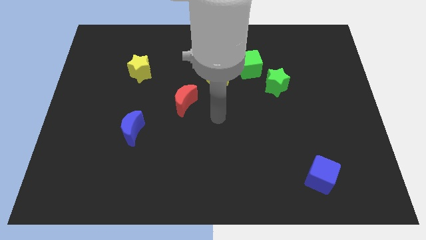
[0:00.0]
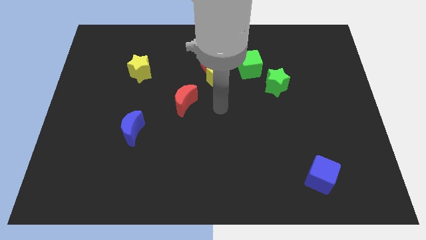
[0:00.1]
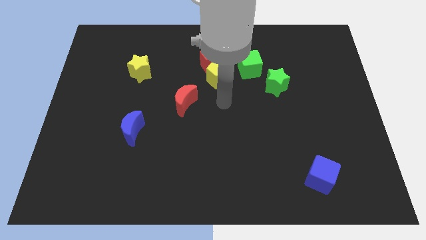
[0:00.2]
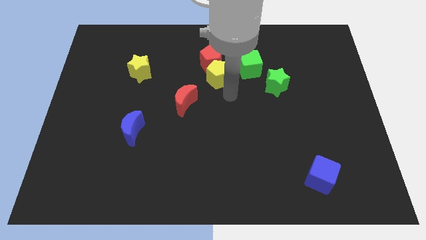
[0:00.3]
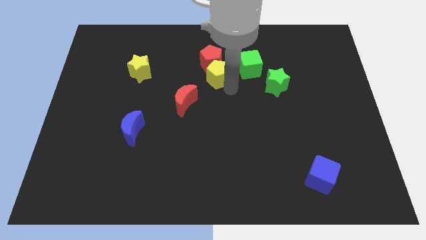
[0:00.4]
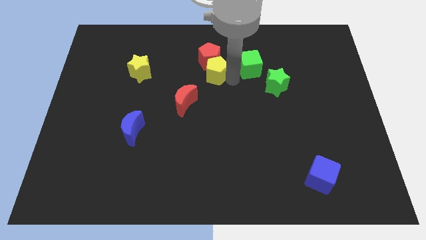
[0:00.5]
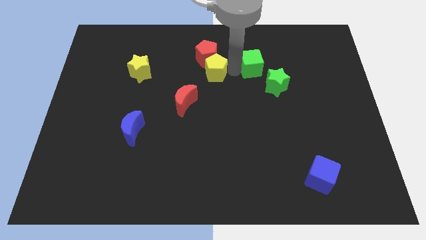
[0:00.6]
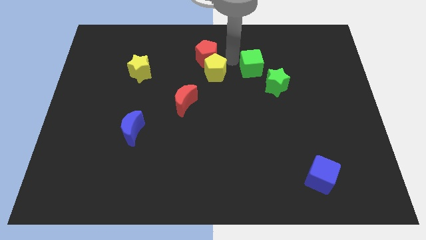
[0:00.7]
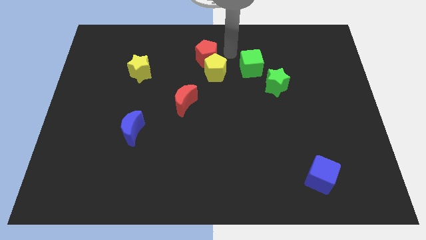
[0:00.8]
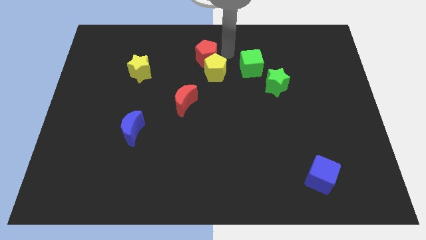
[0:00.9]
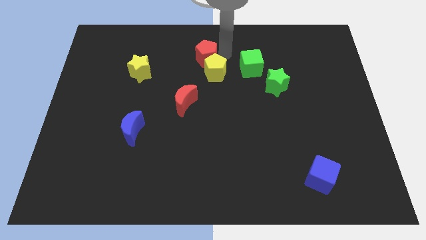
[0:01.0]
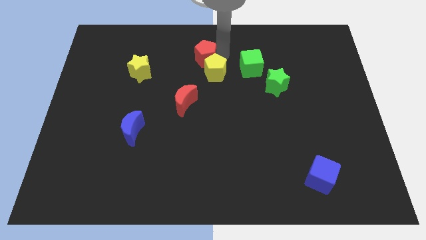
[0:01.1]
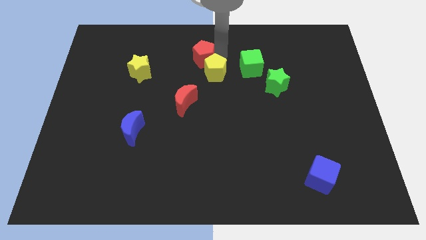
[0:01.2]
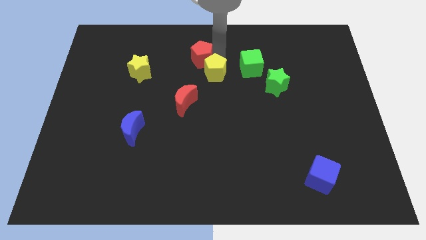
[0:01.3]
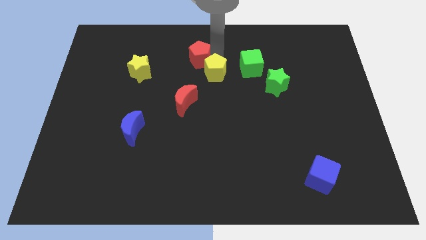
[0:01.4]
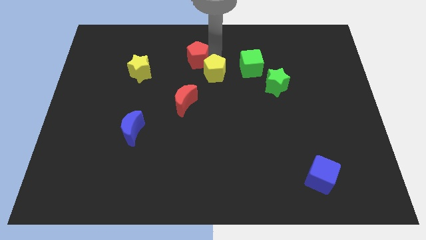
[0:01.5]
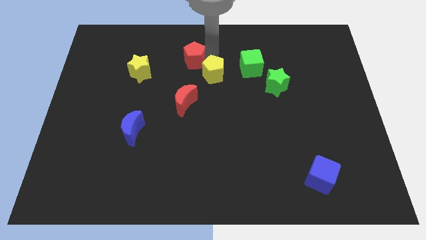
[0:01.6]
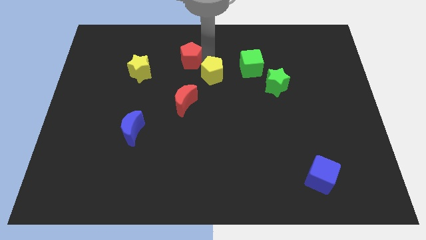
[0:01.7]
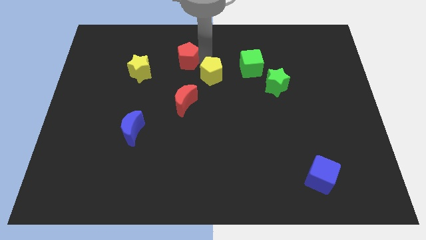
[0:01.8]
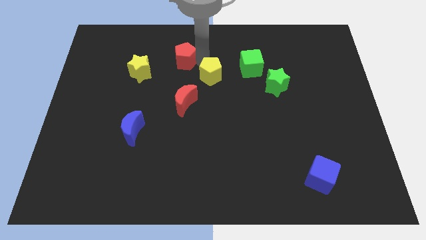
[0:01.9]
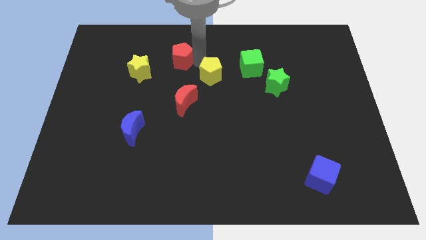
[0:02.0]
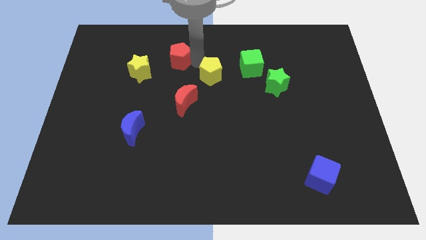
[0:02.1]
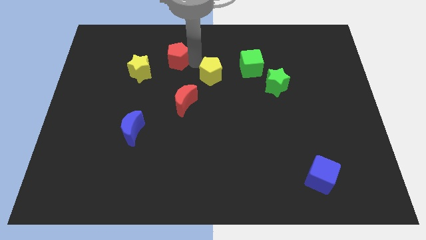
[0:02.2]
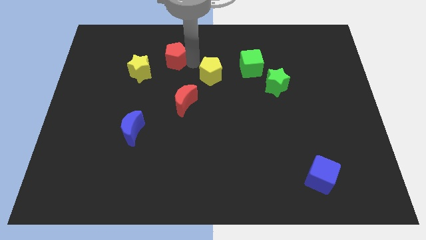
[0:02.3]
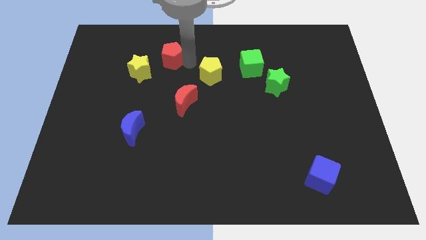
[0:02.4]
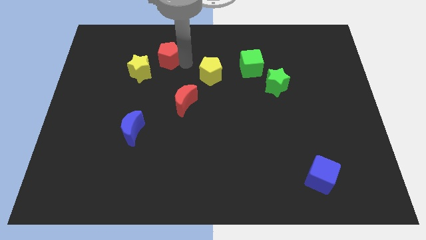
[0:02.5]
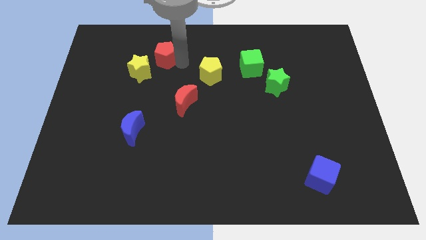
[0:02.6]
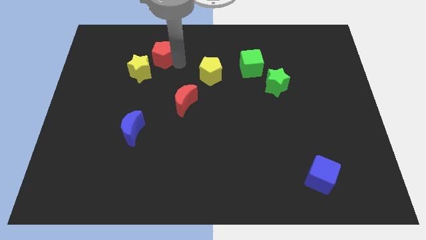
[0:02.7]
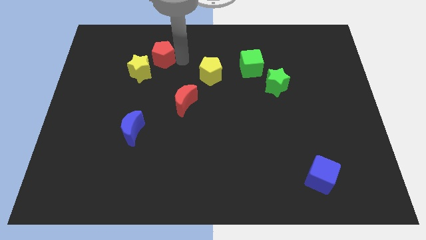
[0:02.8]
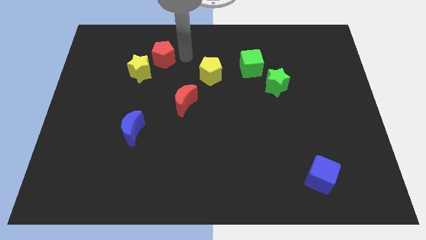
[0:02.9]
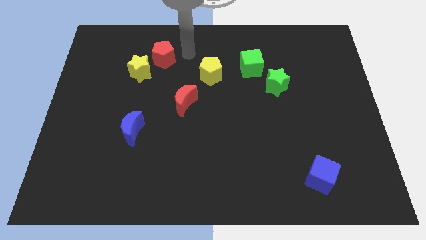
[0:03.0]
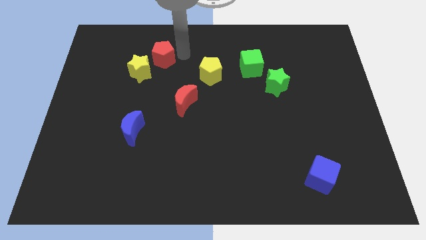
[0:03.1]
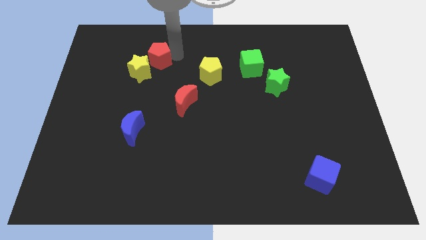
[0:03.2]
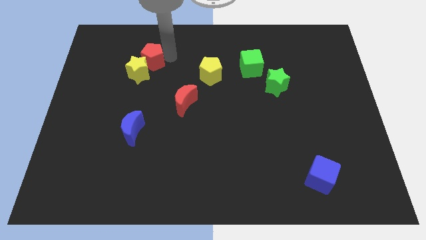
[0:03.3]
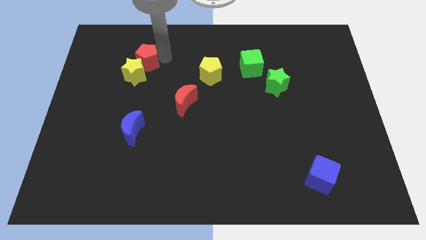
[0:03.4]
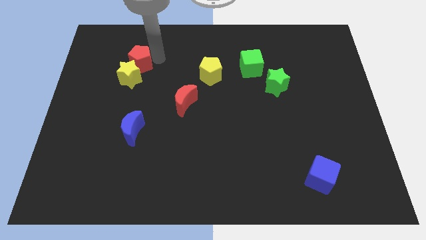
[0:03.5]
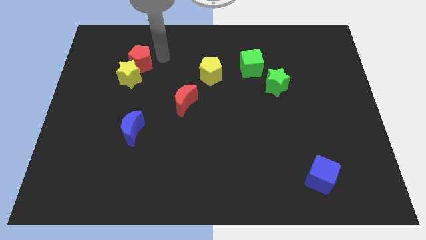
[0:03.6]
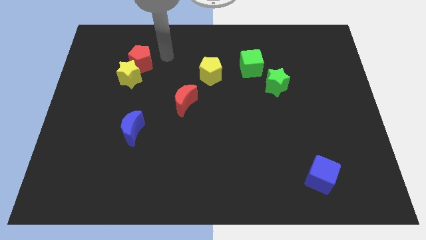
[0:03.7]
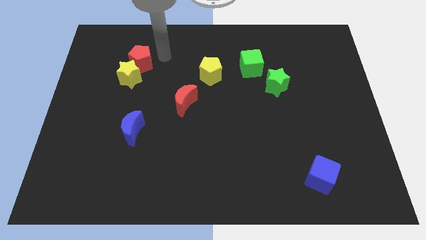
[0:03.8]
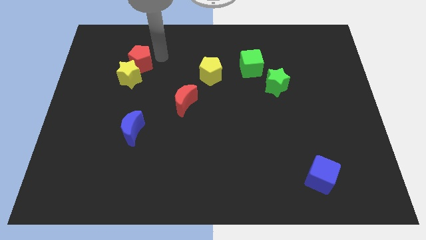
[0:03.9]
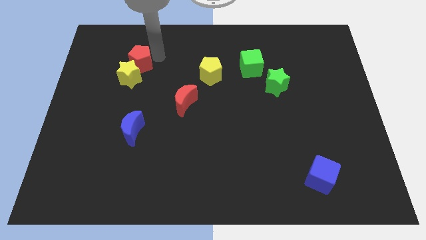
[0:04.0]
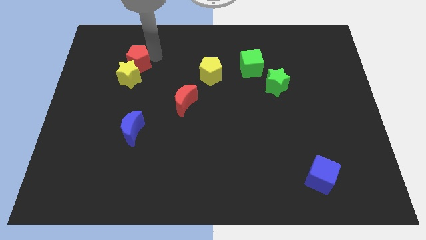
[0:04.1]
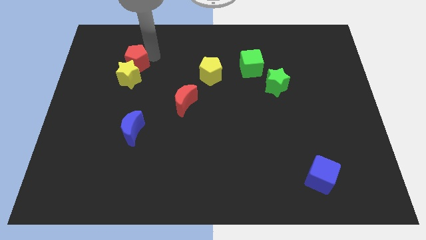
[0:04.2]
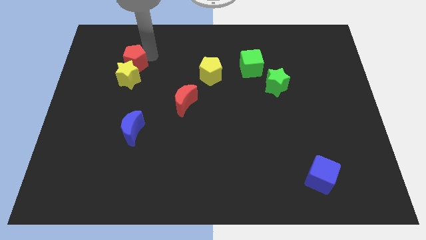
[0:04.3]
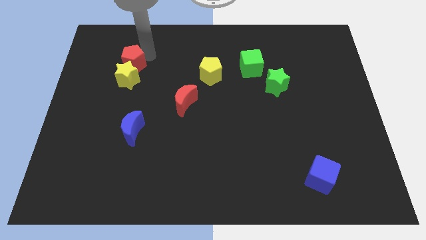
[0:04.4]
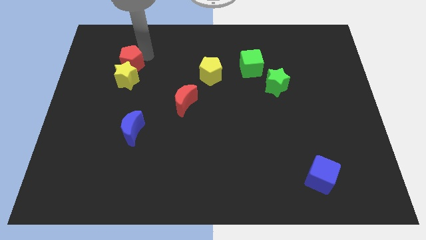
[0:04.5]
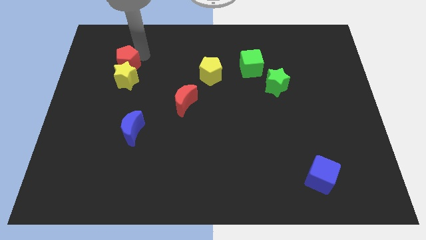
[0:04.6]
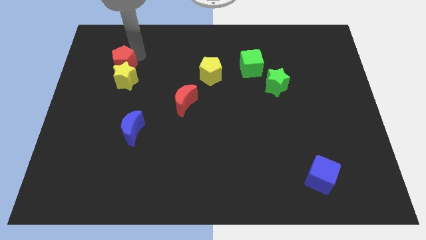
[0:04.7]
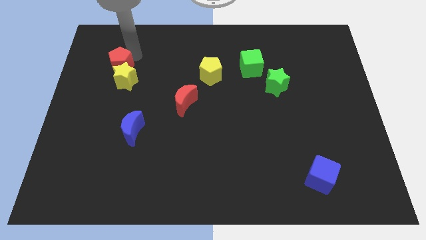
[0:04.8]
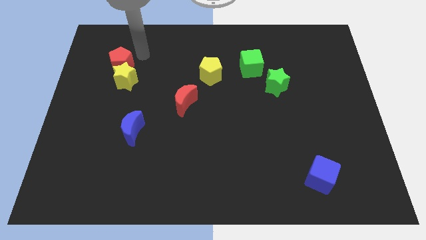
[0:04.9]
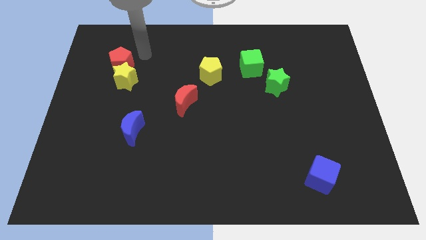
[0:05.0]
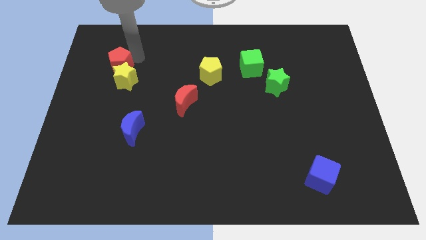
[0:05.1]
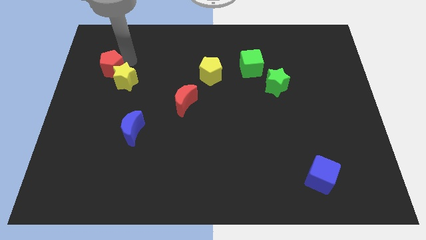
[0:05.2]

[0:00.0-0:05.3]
slide the red pentagon to the left of the yellow star

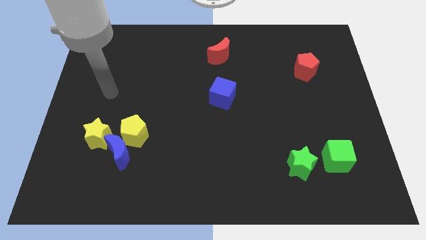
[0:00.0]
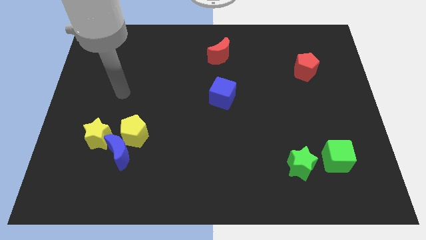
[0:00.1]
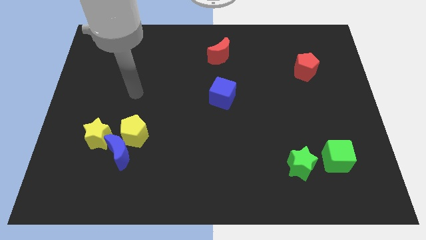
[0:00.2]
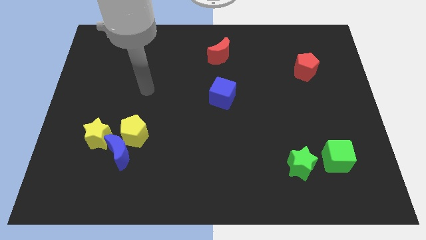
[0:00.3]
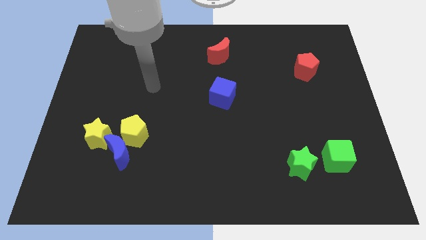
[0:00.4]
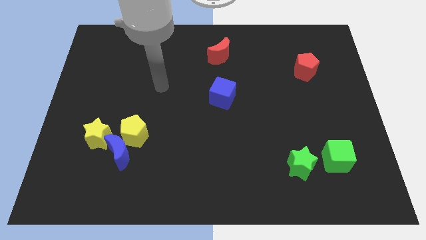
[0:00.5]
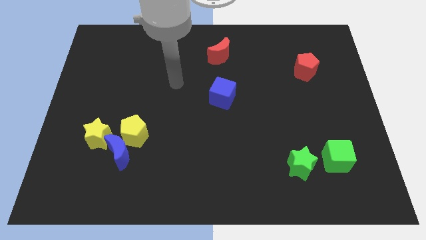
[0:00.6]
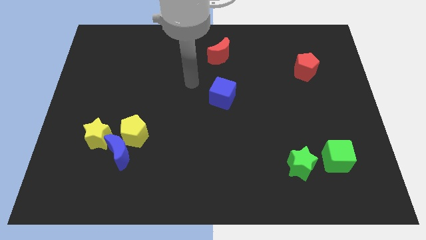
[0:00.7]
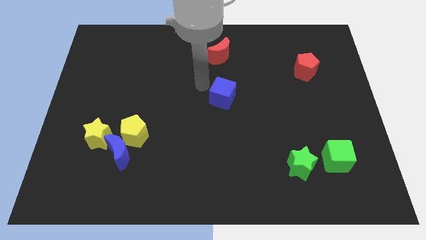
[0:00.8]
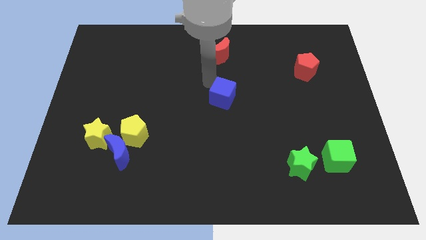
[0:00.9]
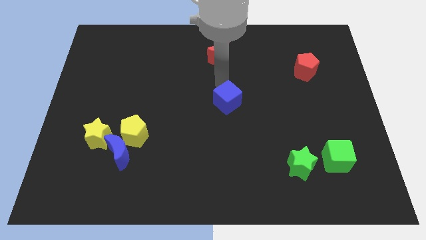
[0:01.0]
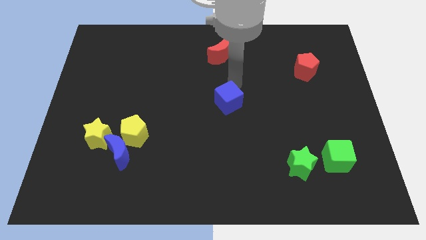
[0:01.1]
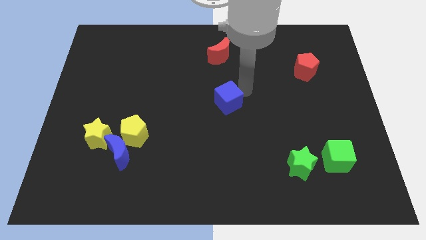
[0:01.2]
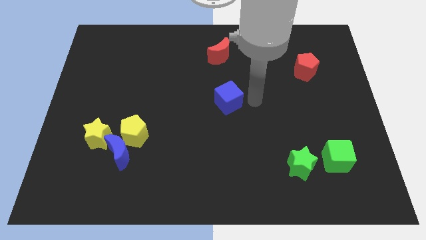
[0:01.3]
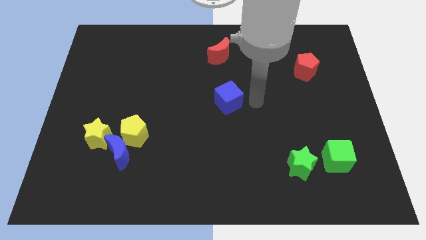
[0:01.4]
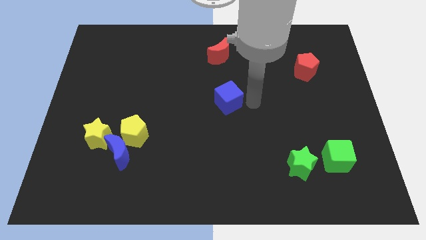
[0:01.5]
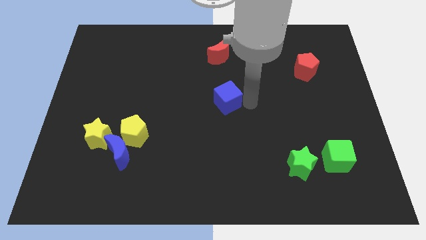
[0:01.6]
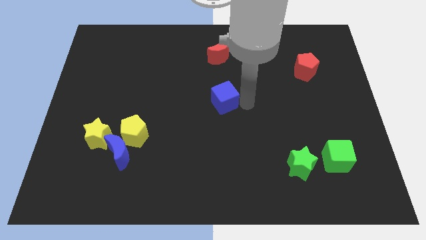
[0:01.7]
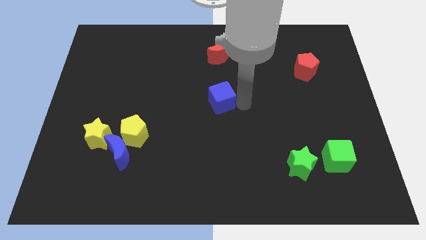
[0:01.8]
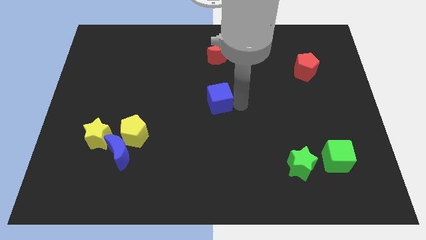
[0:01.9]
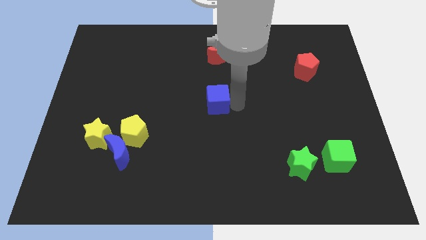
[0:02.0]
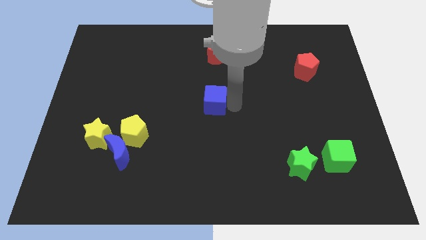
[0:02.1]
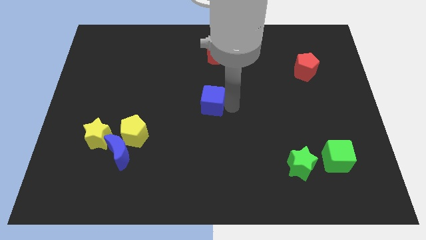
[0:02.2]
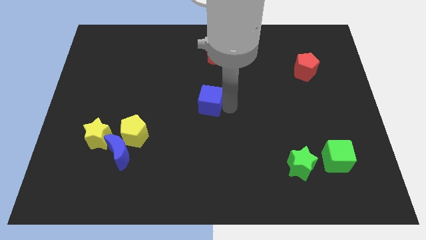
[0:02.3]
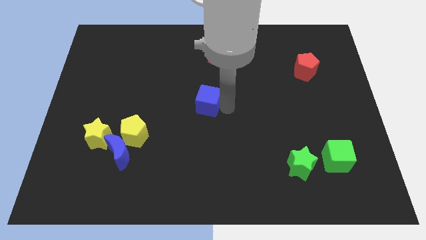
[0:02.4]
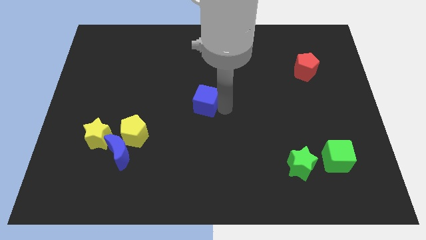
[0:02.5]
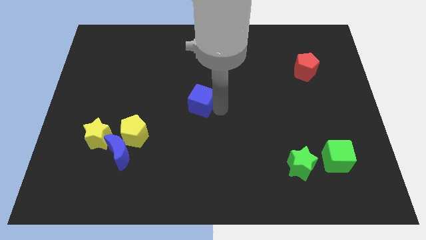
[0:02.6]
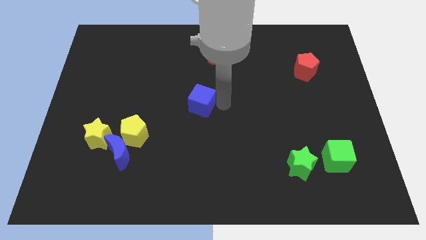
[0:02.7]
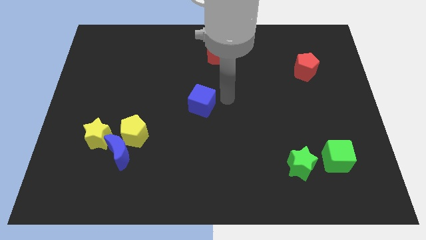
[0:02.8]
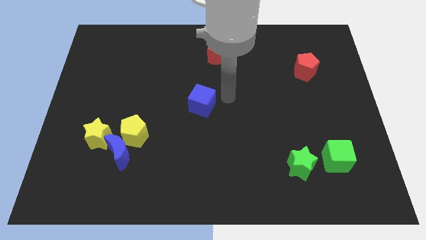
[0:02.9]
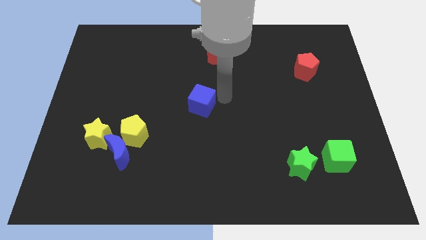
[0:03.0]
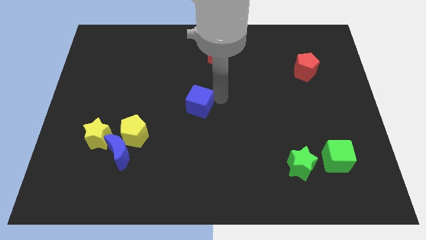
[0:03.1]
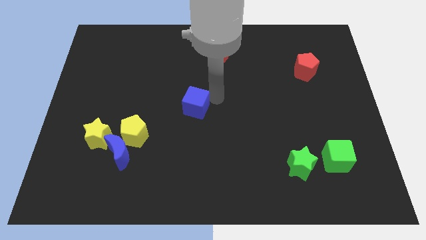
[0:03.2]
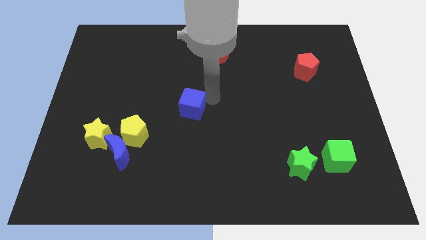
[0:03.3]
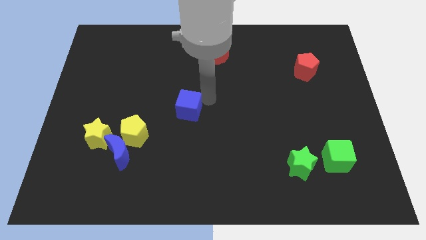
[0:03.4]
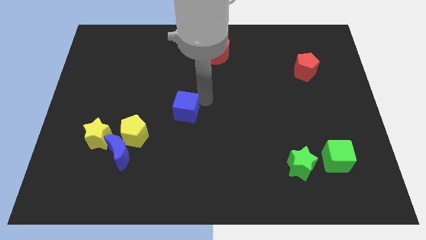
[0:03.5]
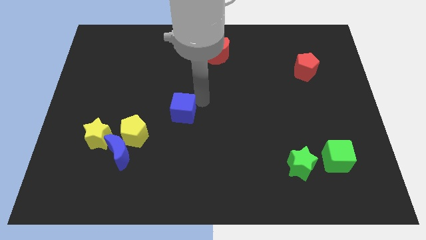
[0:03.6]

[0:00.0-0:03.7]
push the blue cube diagonally up and to the right of the yellow pentagon
